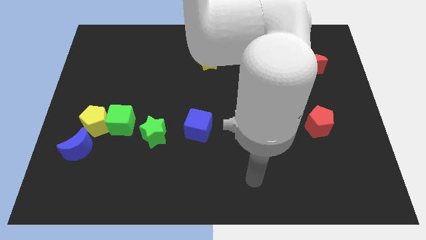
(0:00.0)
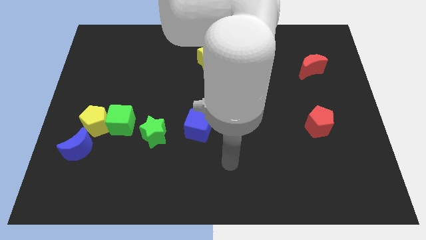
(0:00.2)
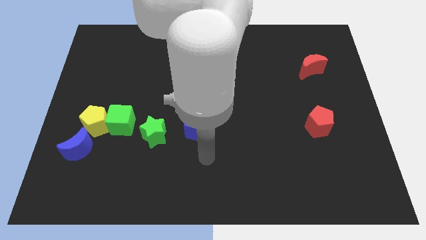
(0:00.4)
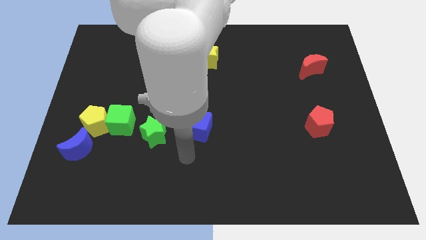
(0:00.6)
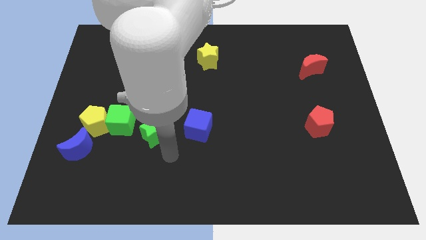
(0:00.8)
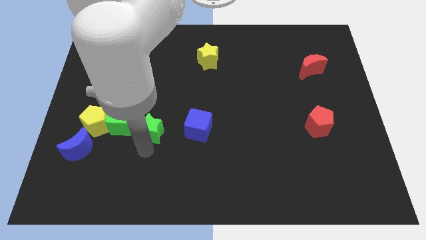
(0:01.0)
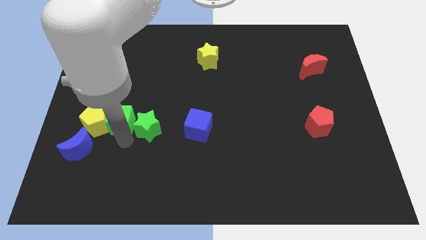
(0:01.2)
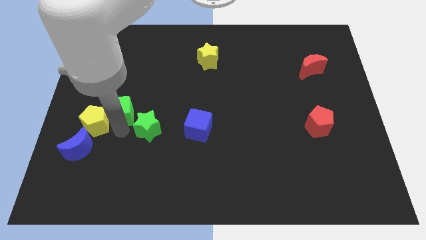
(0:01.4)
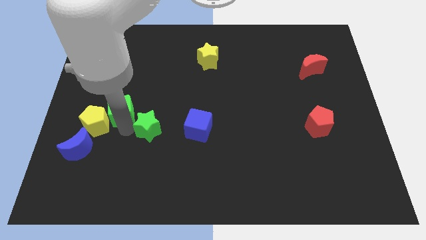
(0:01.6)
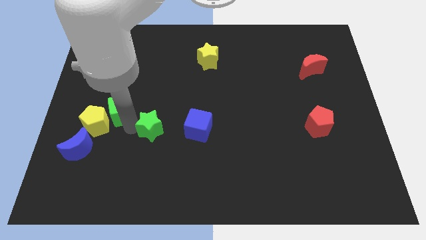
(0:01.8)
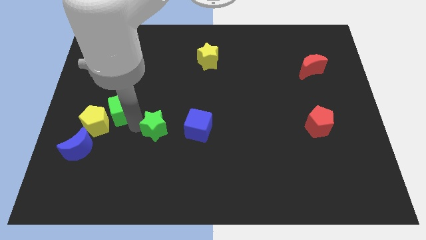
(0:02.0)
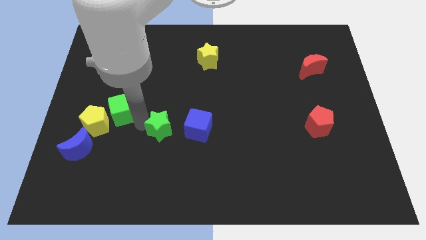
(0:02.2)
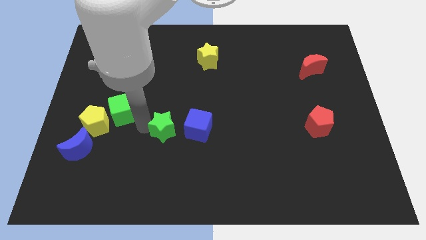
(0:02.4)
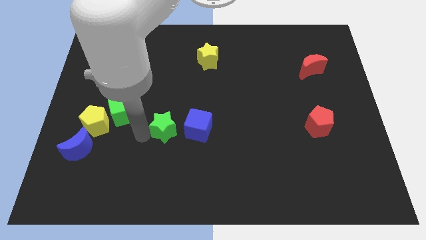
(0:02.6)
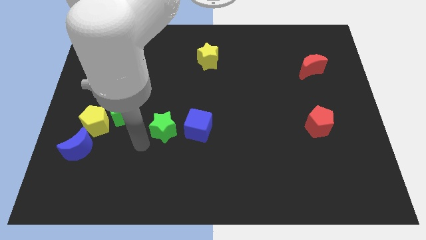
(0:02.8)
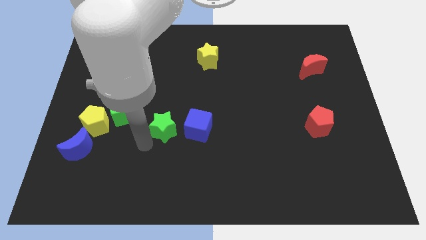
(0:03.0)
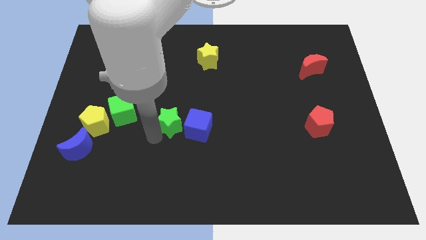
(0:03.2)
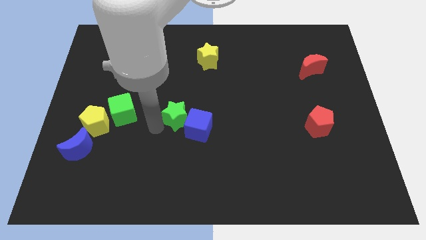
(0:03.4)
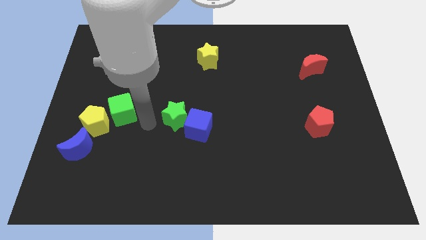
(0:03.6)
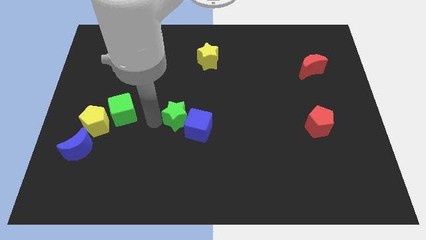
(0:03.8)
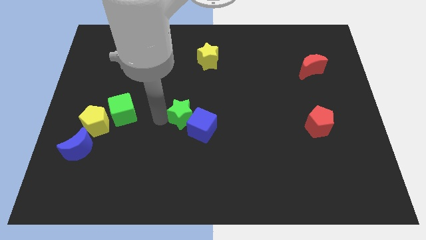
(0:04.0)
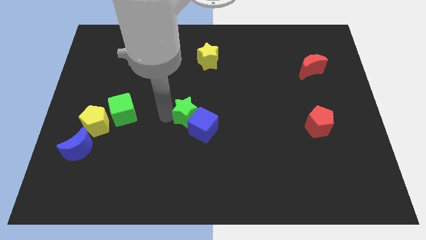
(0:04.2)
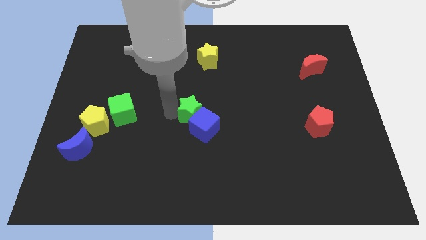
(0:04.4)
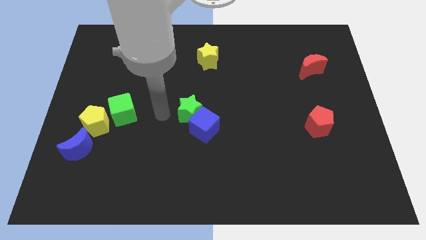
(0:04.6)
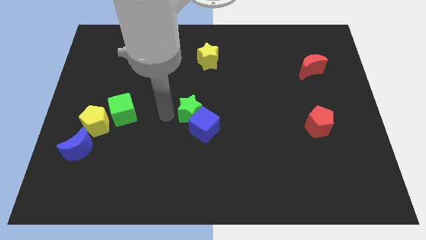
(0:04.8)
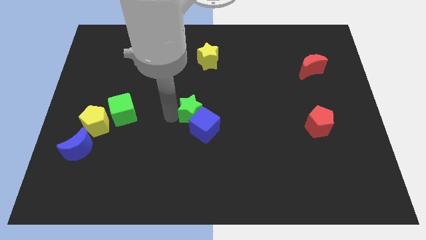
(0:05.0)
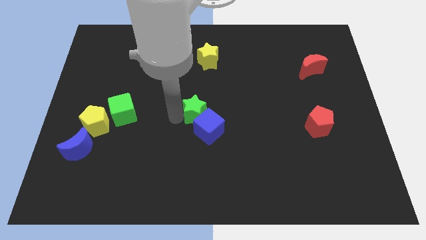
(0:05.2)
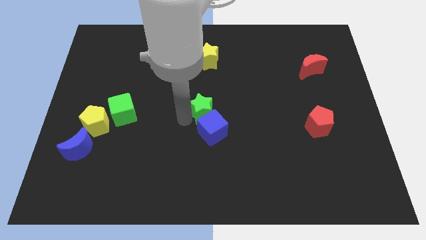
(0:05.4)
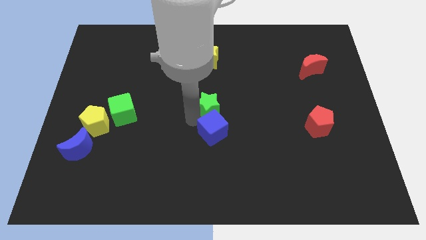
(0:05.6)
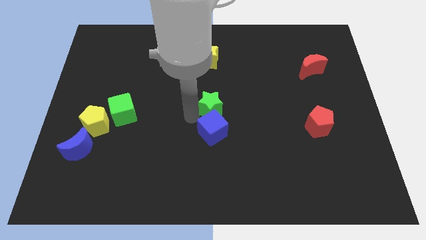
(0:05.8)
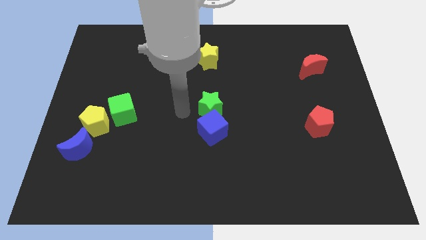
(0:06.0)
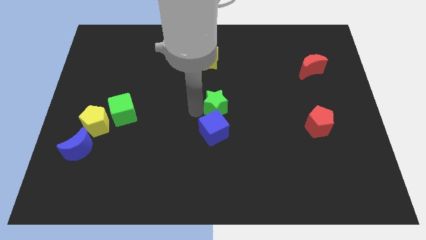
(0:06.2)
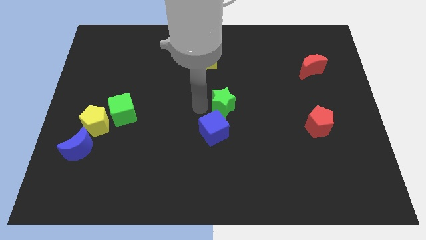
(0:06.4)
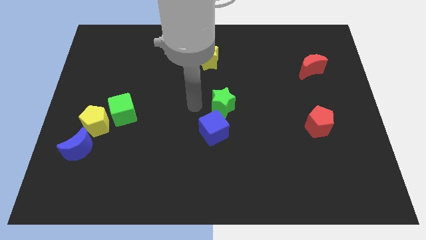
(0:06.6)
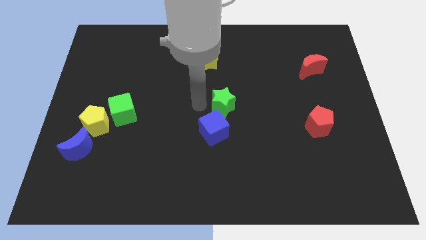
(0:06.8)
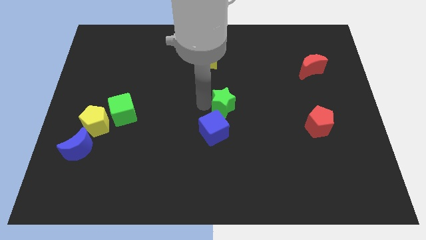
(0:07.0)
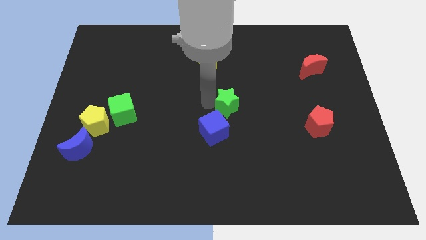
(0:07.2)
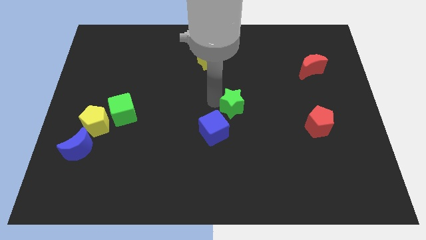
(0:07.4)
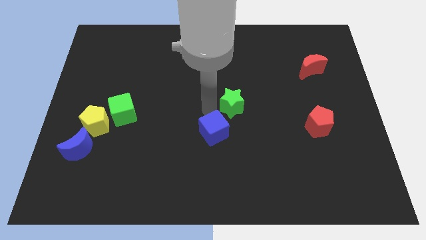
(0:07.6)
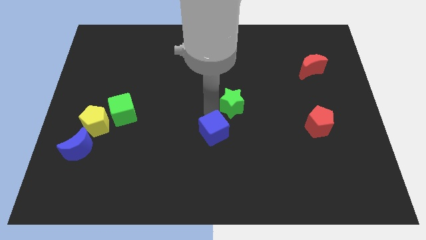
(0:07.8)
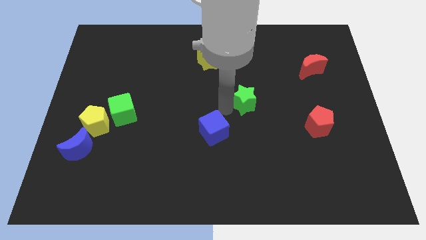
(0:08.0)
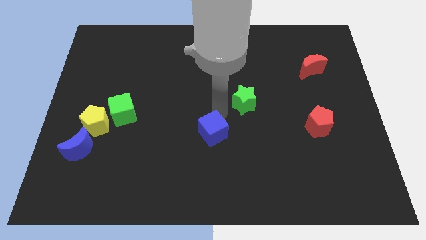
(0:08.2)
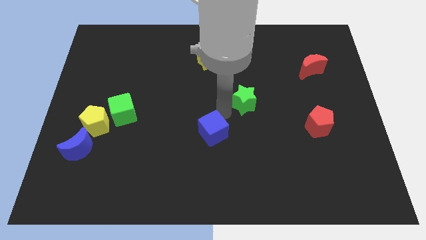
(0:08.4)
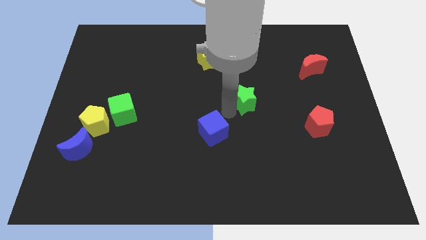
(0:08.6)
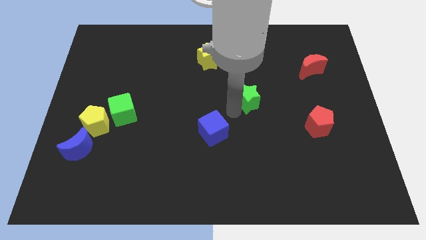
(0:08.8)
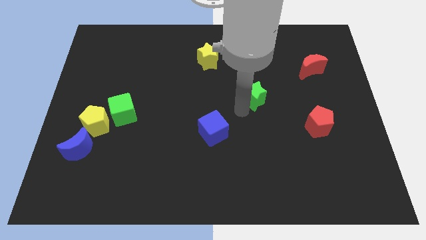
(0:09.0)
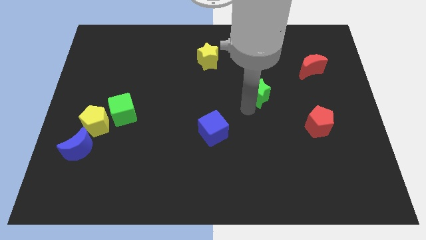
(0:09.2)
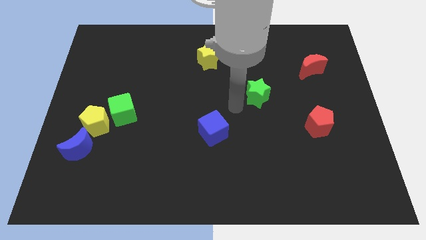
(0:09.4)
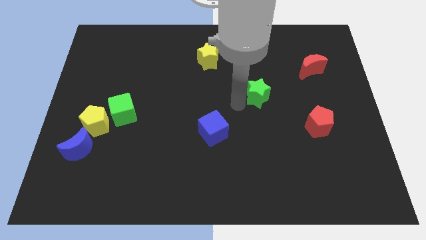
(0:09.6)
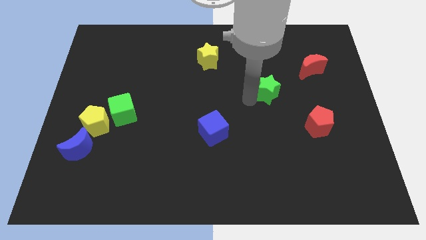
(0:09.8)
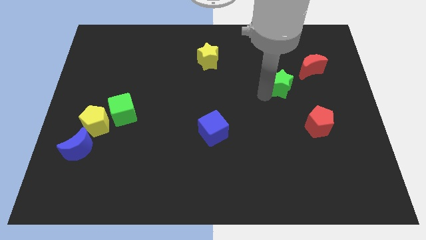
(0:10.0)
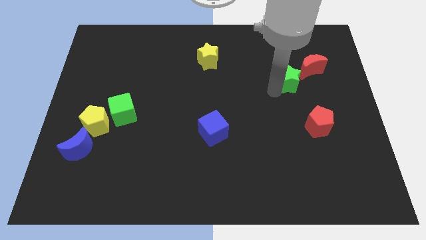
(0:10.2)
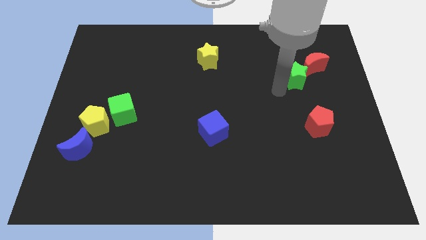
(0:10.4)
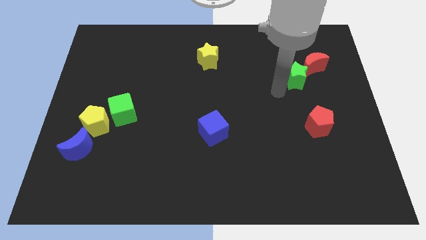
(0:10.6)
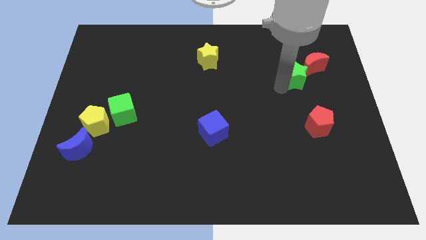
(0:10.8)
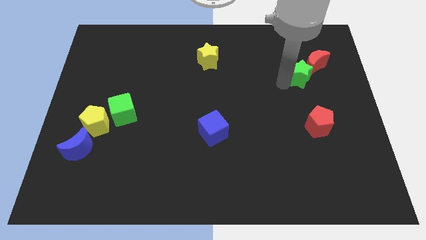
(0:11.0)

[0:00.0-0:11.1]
put the green star next to the red moon

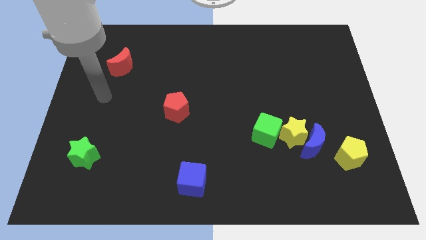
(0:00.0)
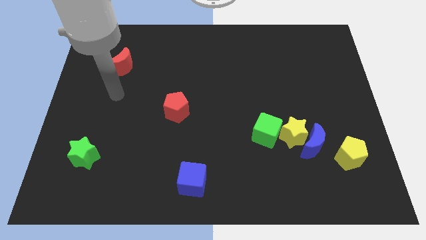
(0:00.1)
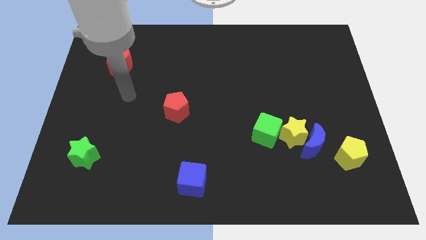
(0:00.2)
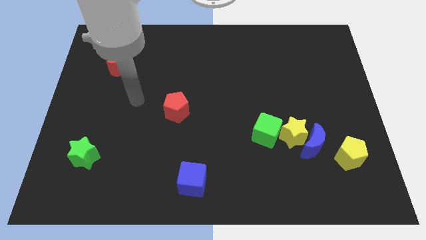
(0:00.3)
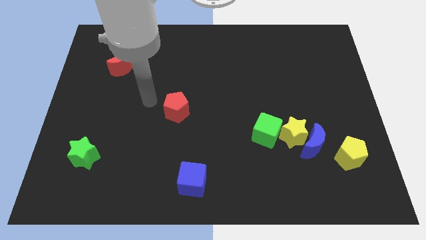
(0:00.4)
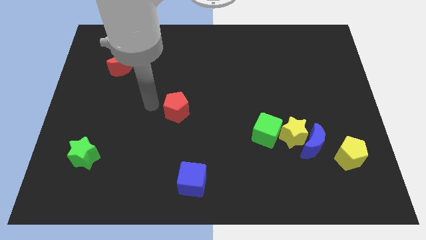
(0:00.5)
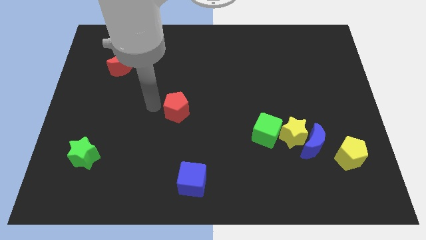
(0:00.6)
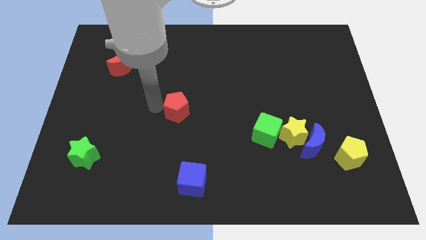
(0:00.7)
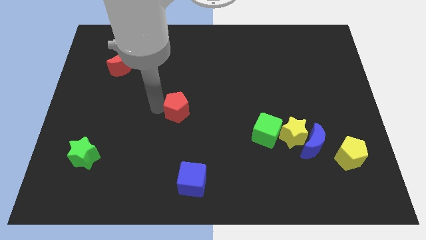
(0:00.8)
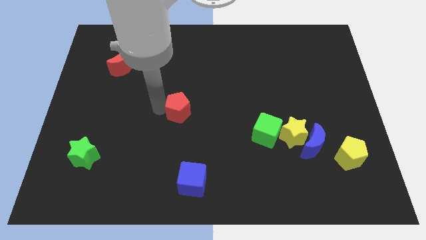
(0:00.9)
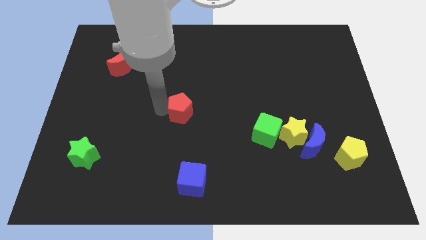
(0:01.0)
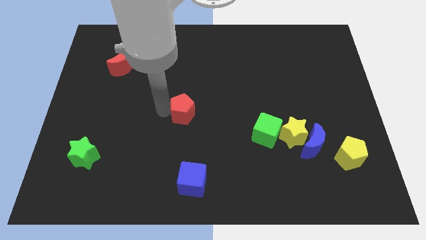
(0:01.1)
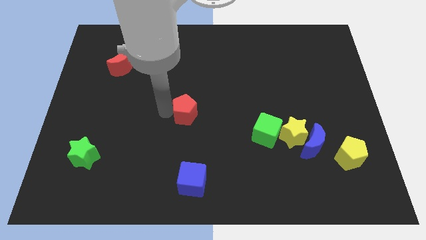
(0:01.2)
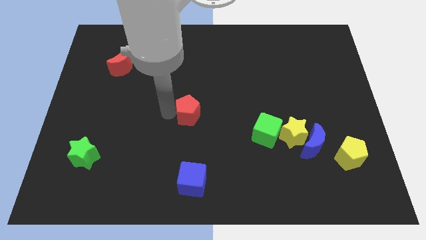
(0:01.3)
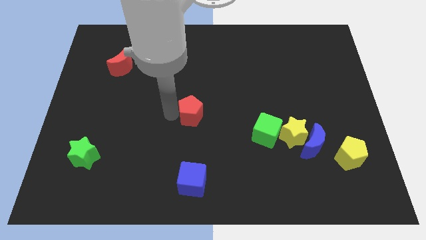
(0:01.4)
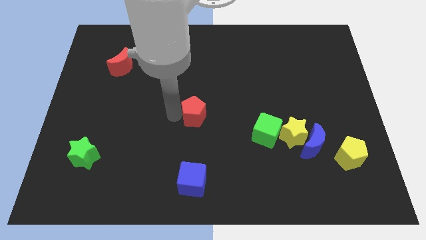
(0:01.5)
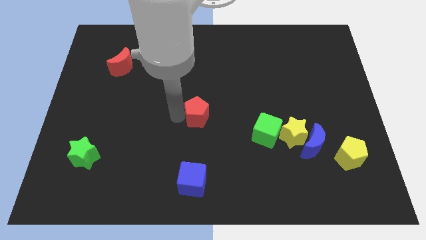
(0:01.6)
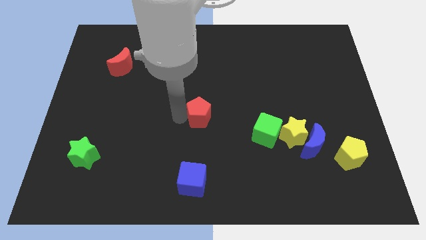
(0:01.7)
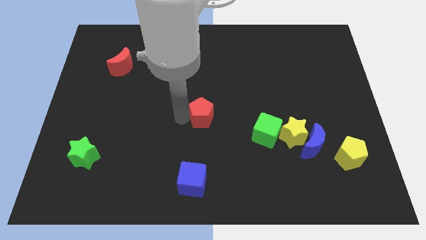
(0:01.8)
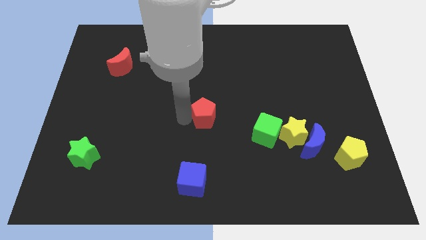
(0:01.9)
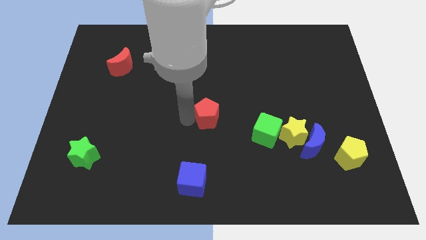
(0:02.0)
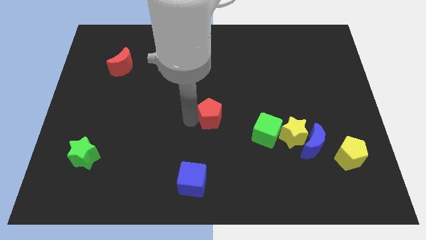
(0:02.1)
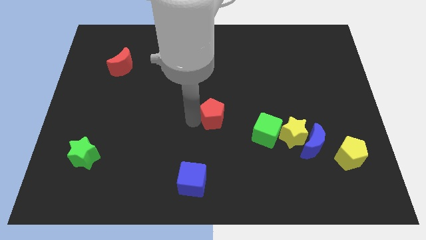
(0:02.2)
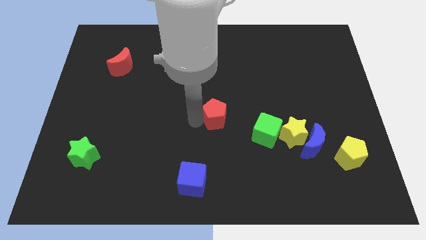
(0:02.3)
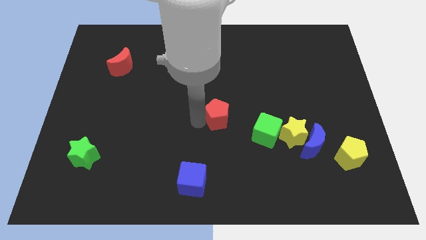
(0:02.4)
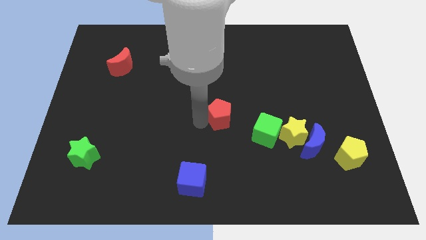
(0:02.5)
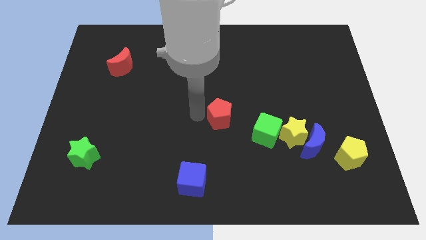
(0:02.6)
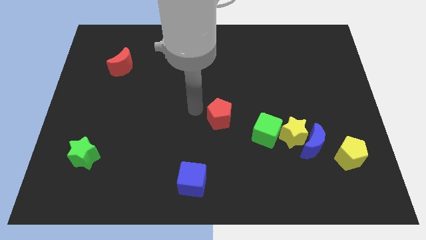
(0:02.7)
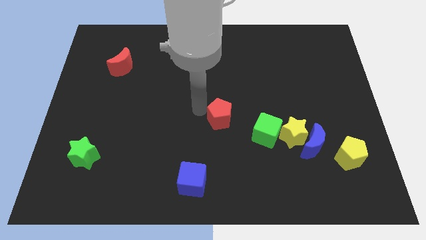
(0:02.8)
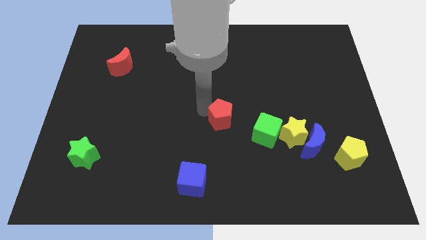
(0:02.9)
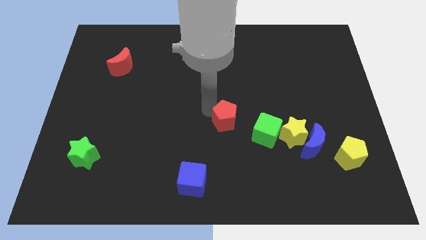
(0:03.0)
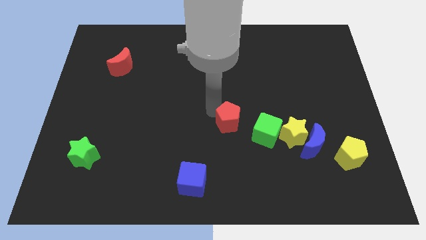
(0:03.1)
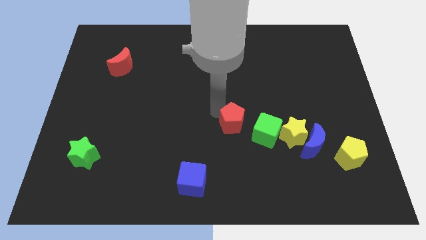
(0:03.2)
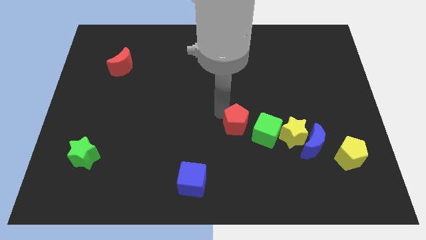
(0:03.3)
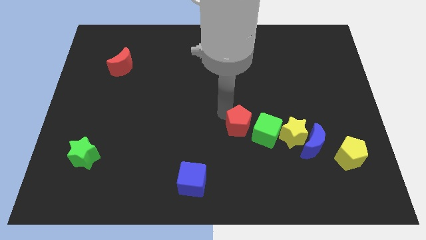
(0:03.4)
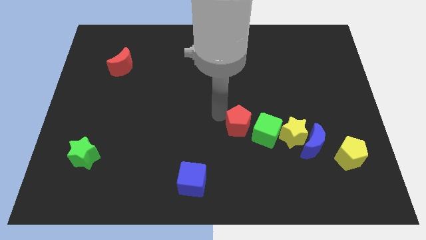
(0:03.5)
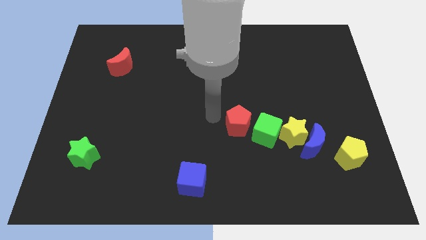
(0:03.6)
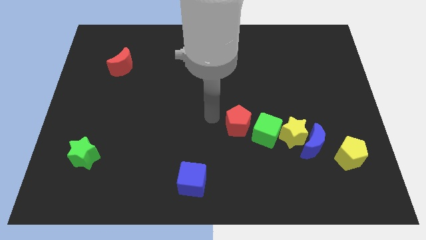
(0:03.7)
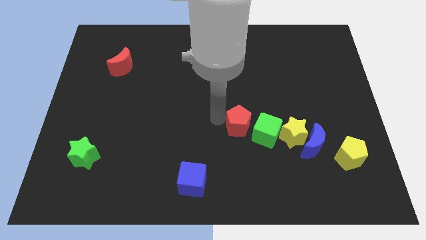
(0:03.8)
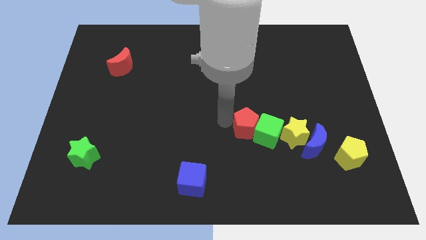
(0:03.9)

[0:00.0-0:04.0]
move the red pentagon towards the green cube
